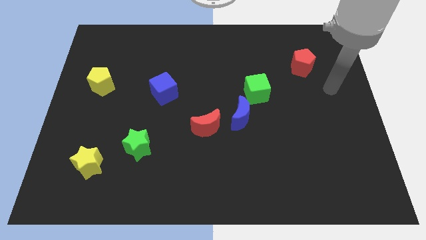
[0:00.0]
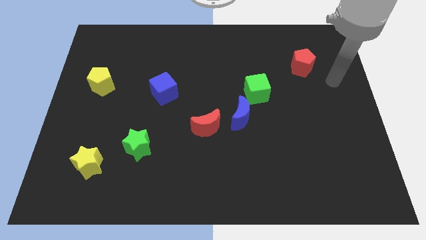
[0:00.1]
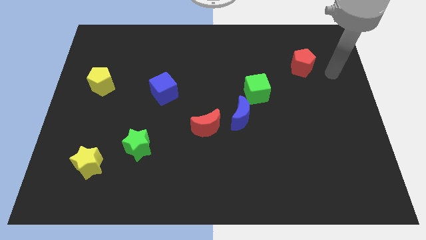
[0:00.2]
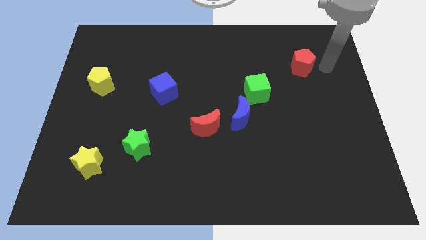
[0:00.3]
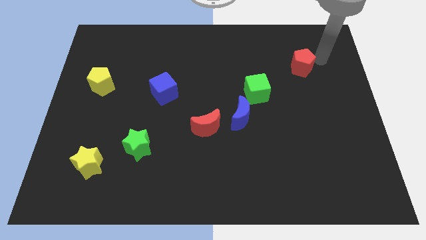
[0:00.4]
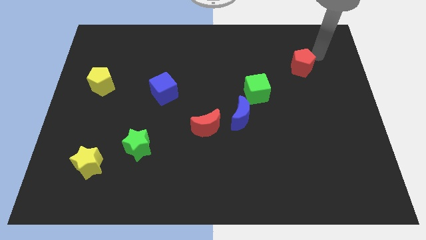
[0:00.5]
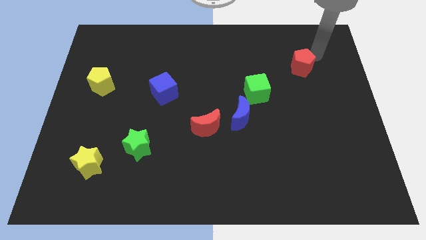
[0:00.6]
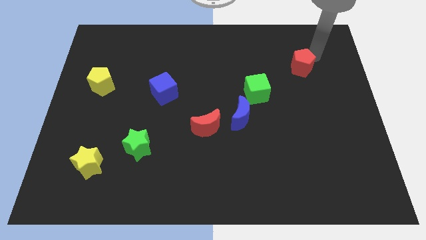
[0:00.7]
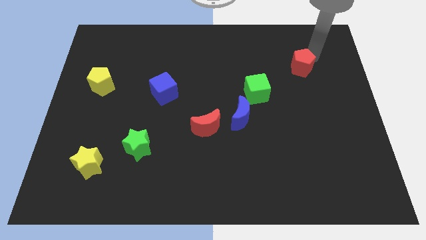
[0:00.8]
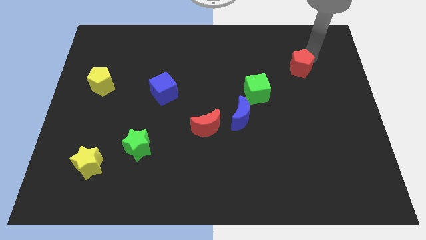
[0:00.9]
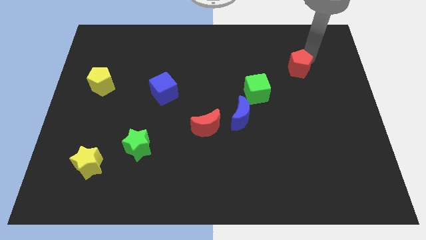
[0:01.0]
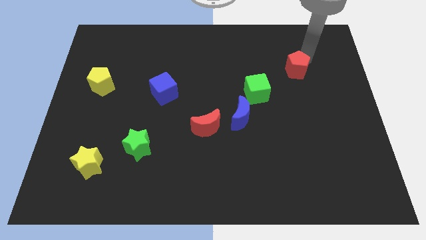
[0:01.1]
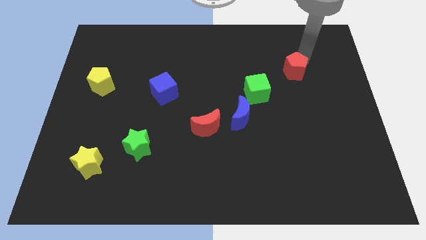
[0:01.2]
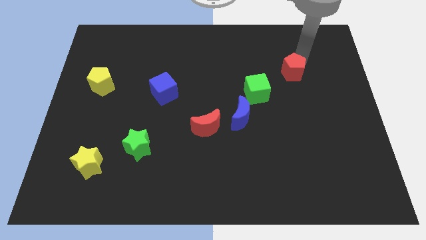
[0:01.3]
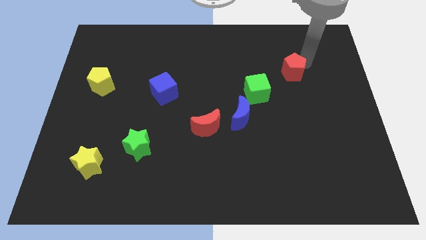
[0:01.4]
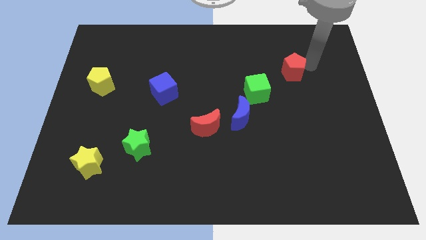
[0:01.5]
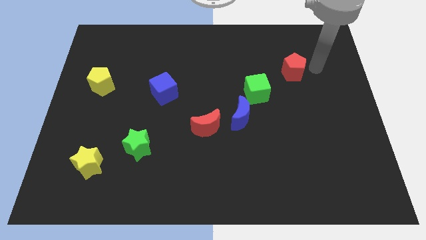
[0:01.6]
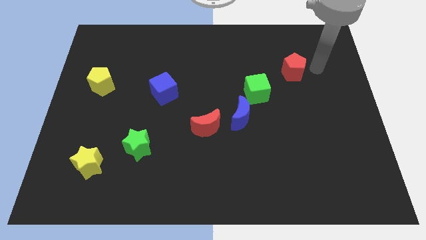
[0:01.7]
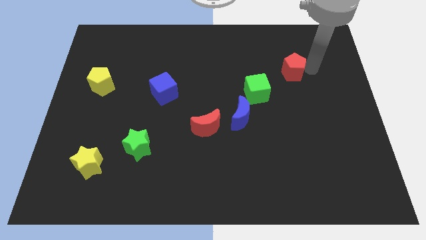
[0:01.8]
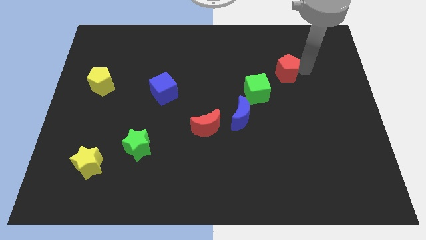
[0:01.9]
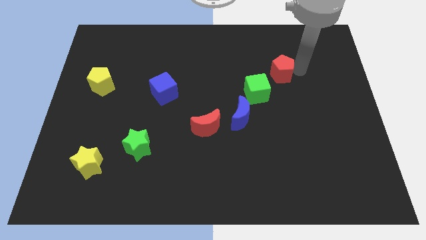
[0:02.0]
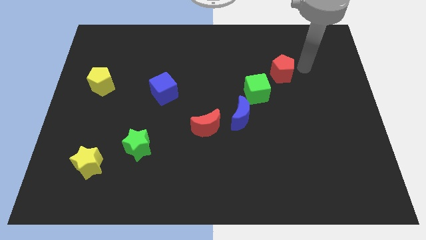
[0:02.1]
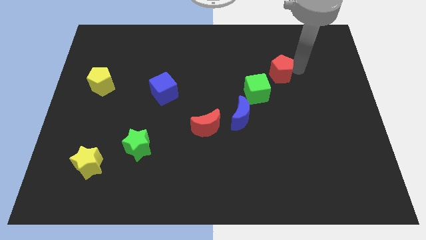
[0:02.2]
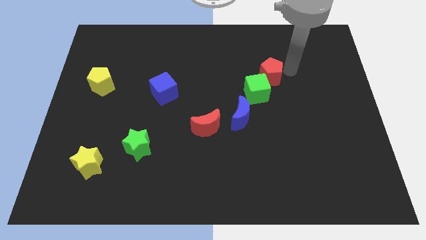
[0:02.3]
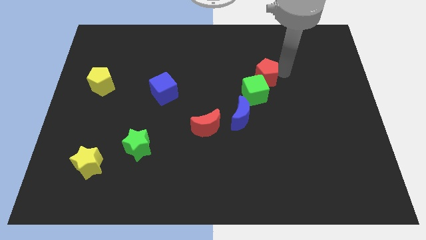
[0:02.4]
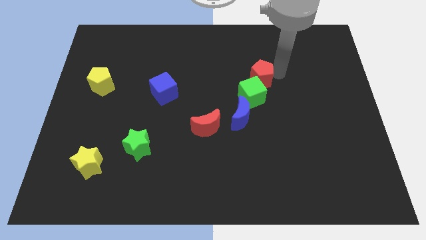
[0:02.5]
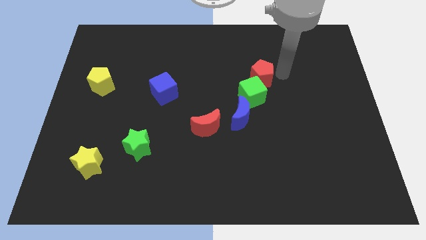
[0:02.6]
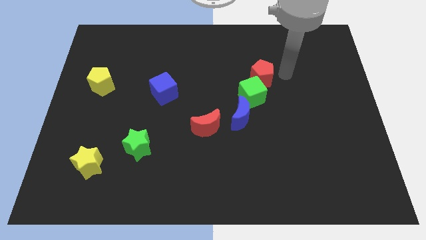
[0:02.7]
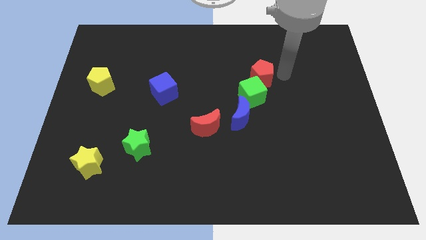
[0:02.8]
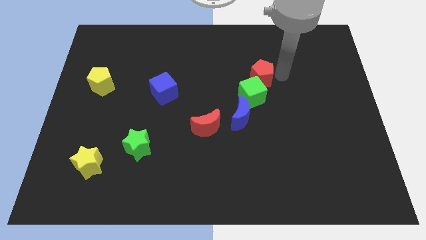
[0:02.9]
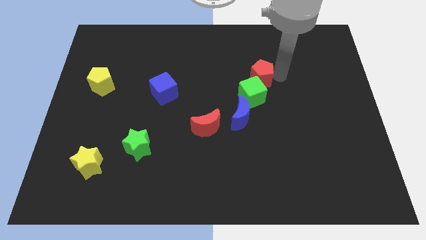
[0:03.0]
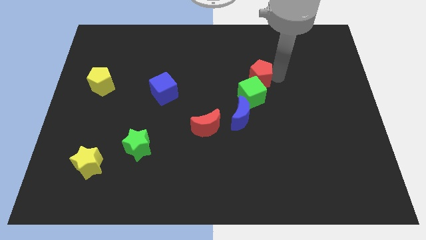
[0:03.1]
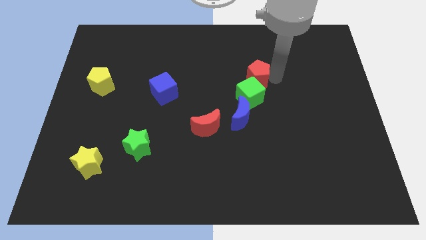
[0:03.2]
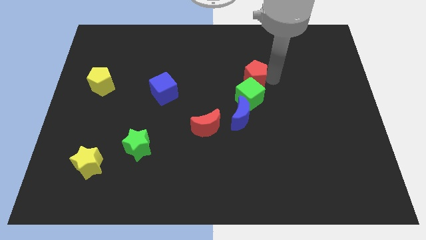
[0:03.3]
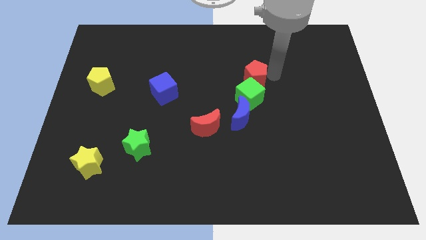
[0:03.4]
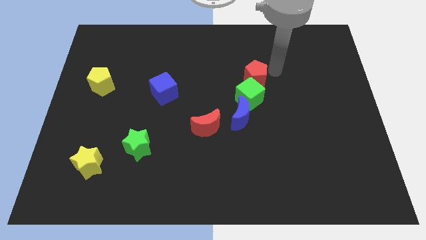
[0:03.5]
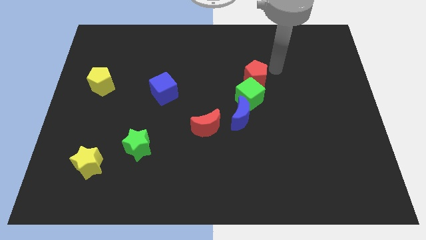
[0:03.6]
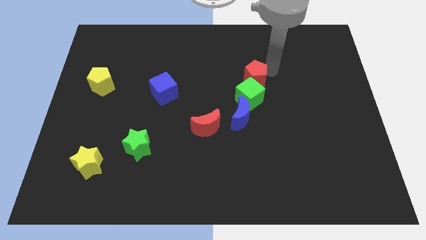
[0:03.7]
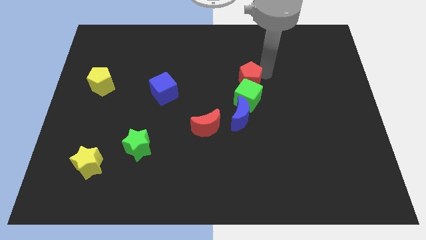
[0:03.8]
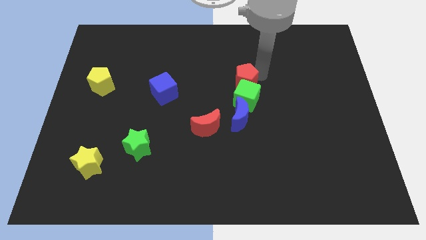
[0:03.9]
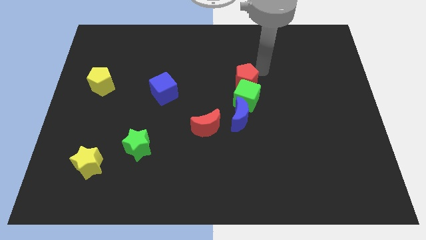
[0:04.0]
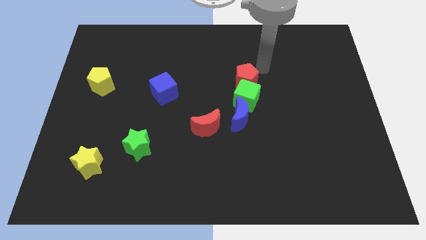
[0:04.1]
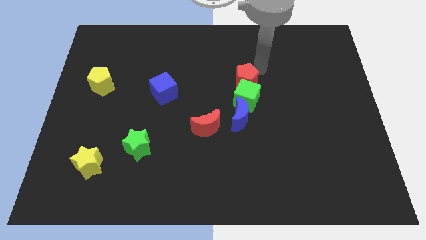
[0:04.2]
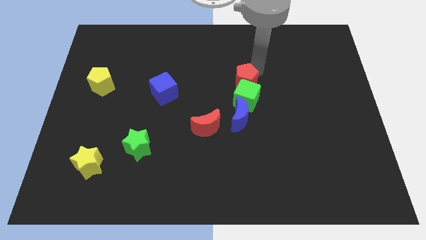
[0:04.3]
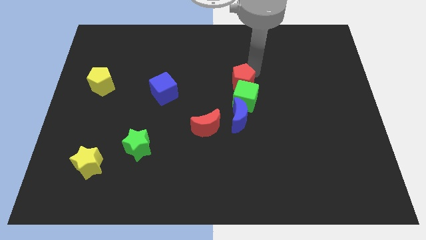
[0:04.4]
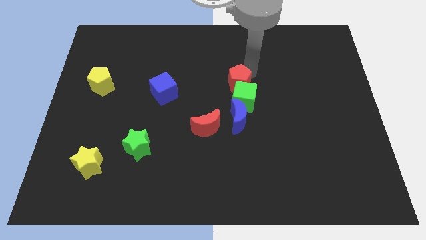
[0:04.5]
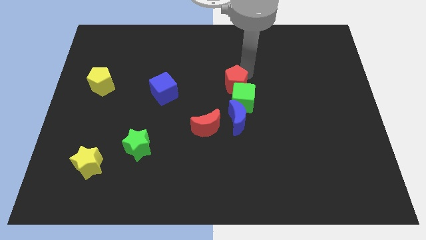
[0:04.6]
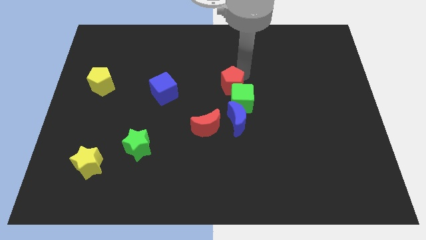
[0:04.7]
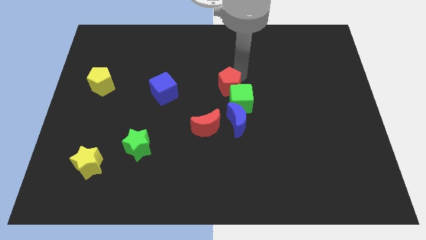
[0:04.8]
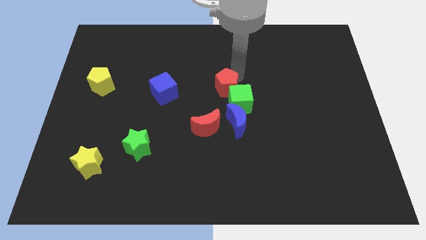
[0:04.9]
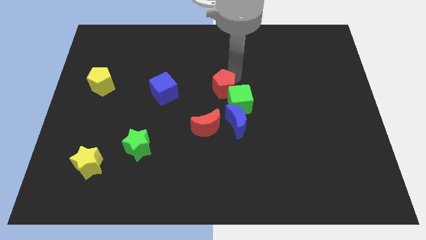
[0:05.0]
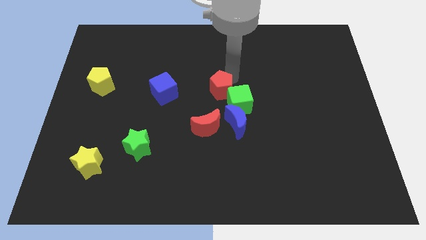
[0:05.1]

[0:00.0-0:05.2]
move the red pentagon to the top left of the blue moon

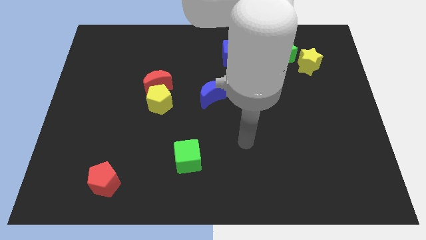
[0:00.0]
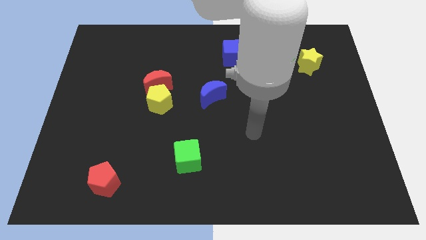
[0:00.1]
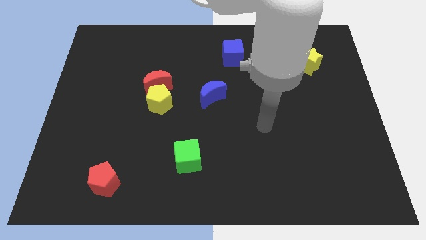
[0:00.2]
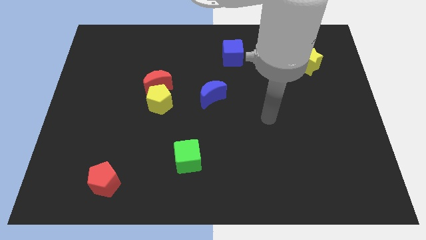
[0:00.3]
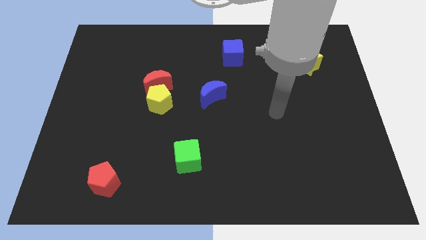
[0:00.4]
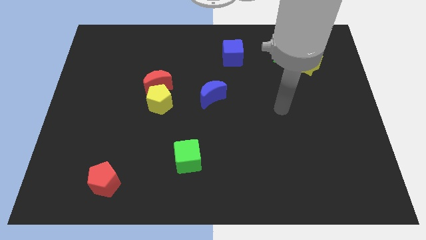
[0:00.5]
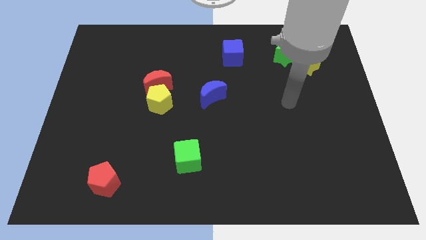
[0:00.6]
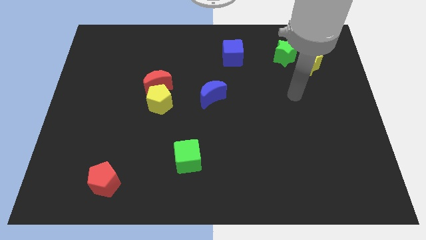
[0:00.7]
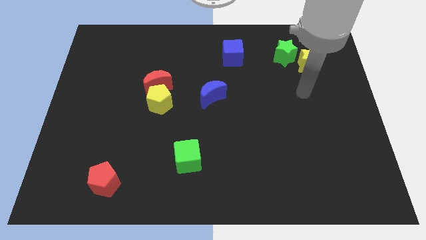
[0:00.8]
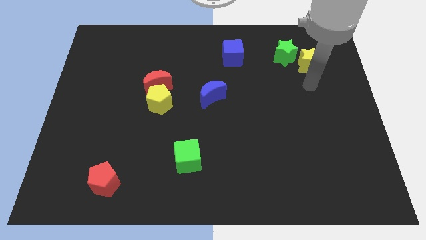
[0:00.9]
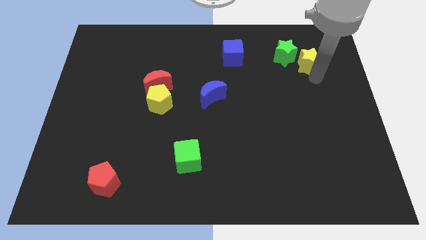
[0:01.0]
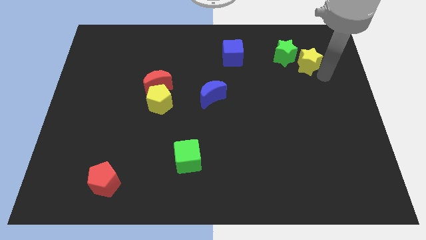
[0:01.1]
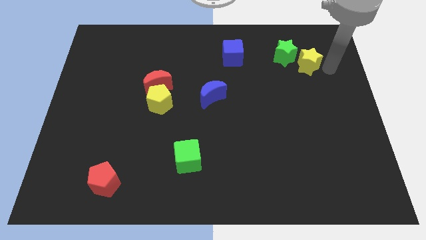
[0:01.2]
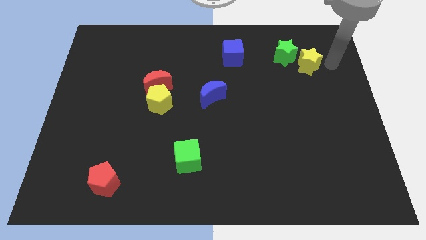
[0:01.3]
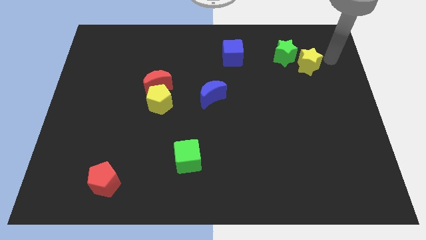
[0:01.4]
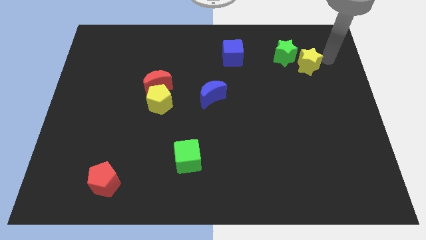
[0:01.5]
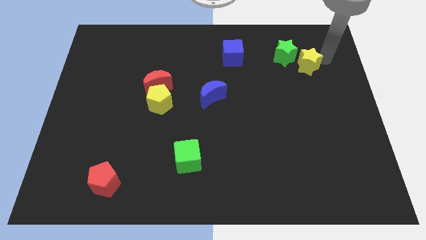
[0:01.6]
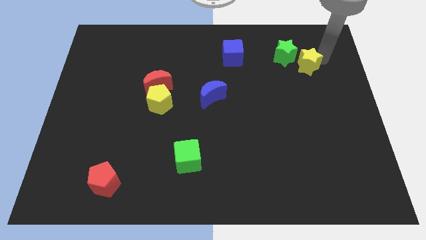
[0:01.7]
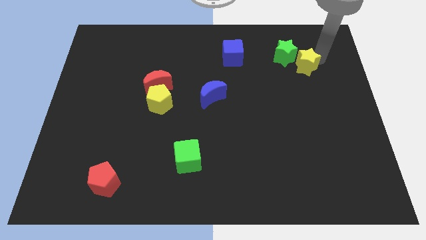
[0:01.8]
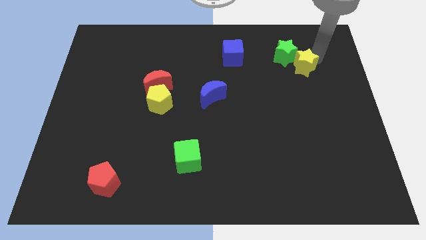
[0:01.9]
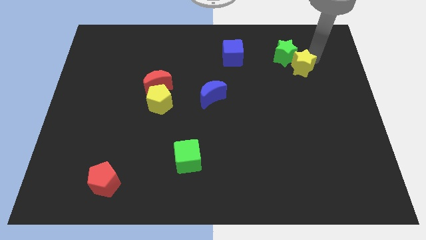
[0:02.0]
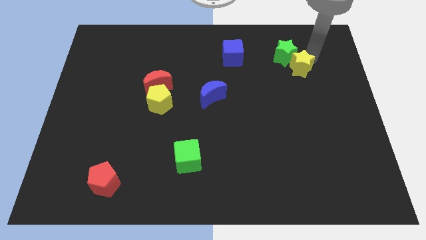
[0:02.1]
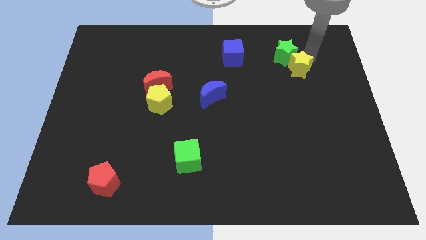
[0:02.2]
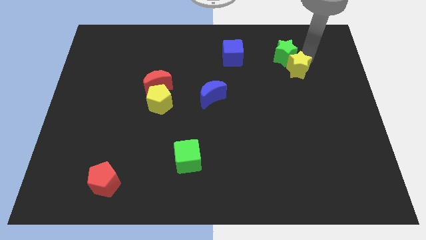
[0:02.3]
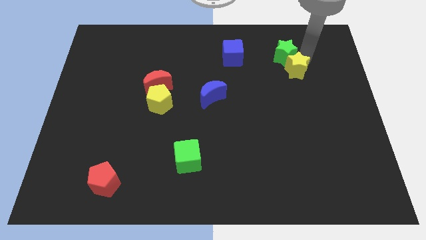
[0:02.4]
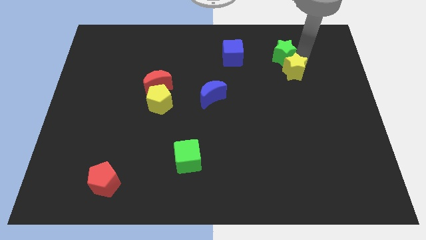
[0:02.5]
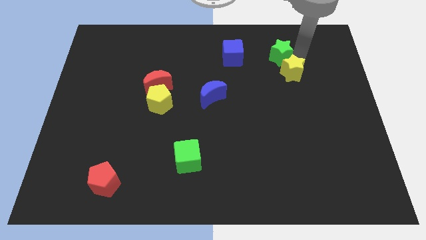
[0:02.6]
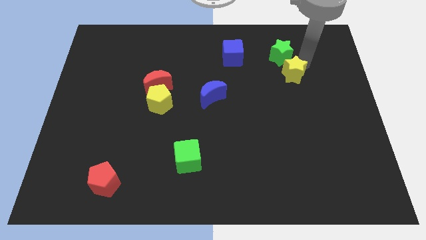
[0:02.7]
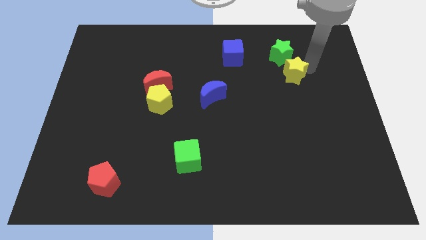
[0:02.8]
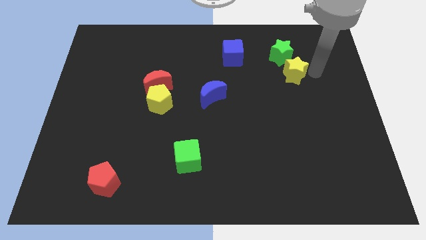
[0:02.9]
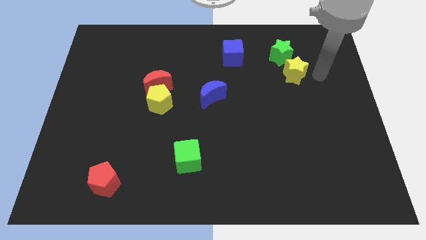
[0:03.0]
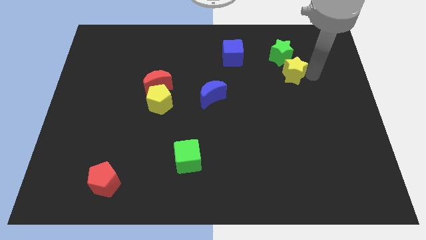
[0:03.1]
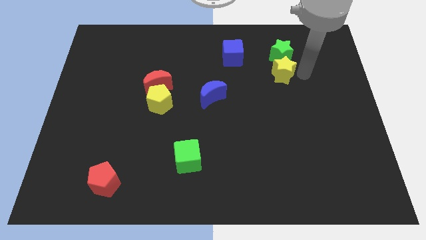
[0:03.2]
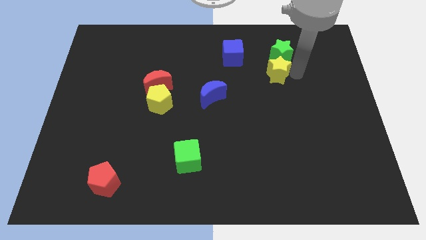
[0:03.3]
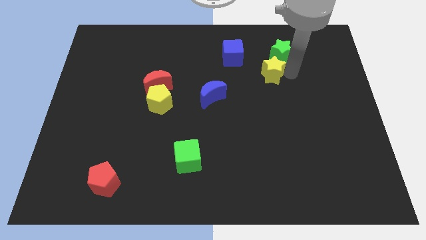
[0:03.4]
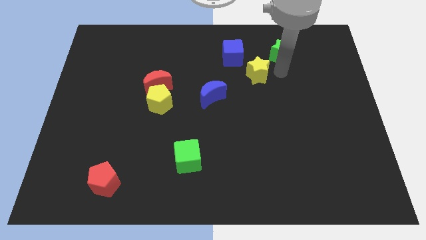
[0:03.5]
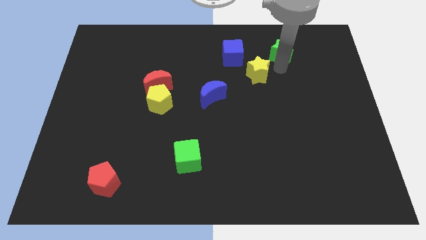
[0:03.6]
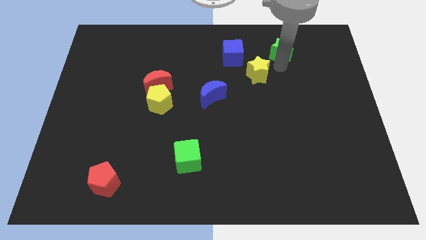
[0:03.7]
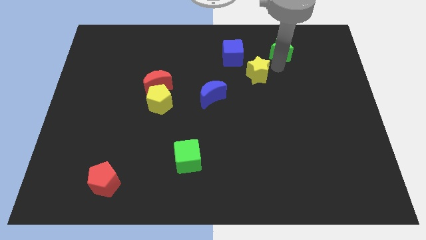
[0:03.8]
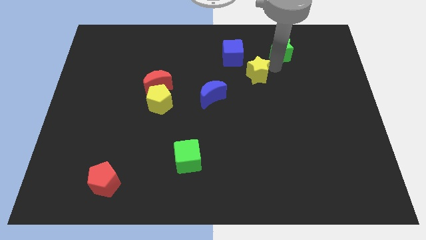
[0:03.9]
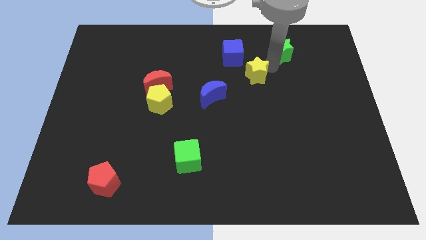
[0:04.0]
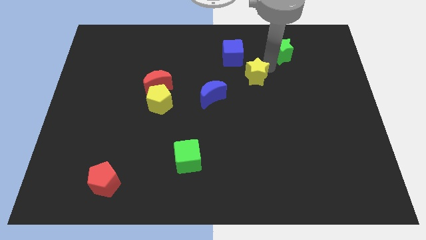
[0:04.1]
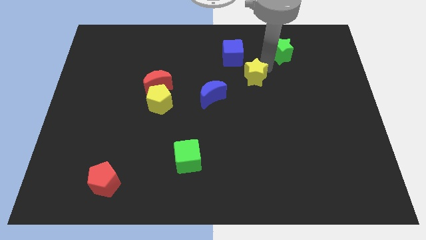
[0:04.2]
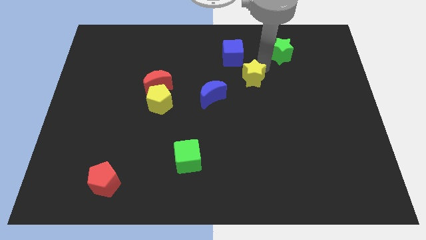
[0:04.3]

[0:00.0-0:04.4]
put the yellow star to the top right of the blue moon
